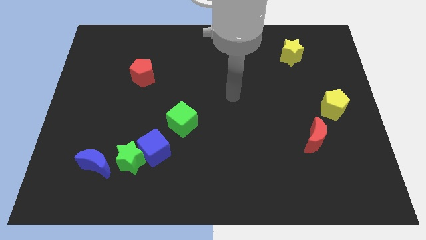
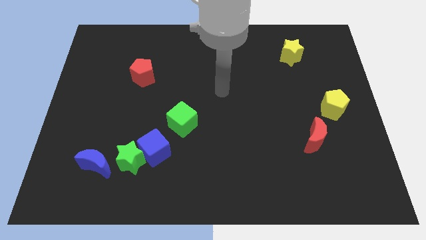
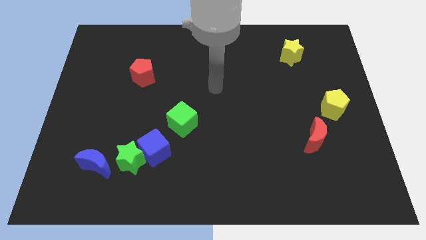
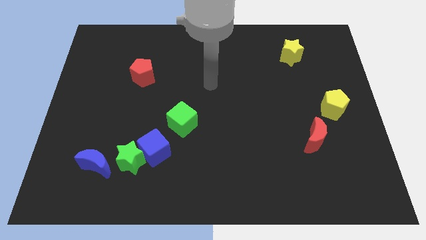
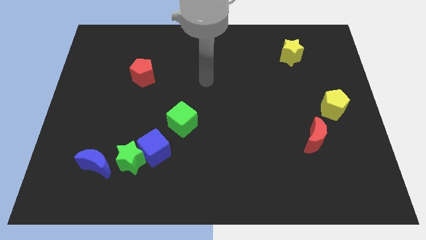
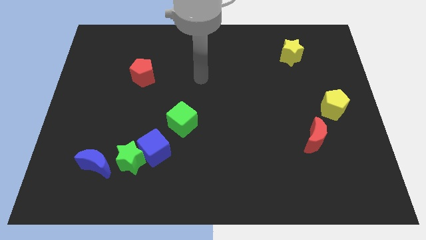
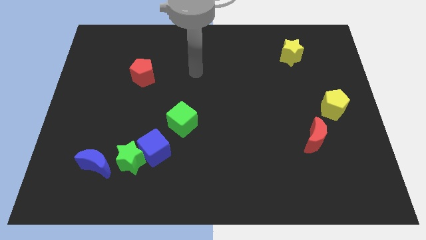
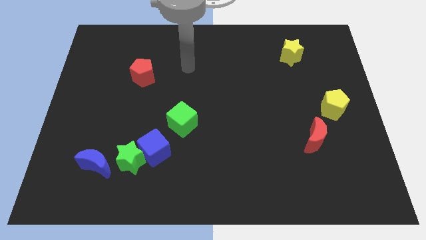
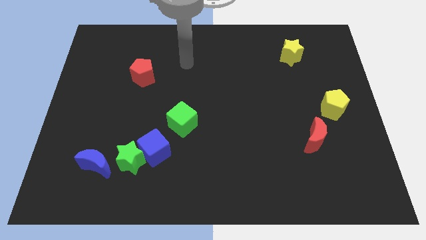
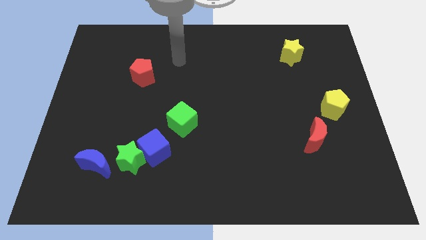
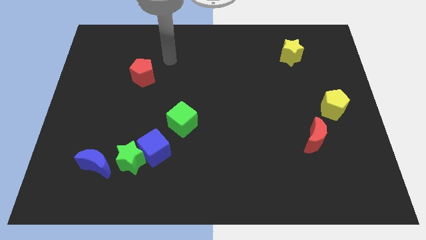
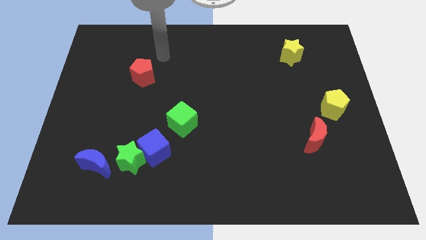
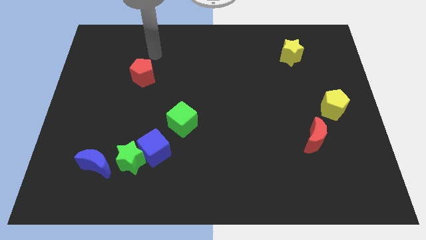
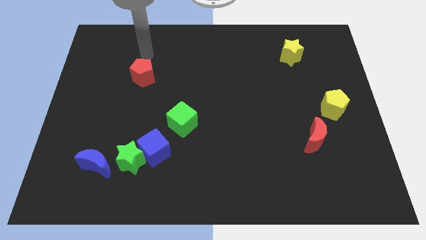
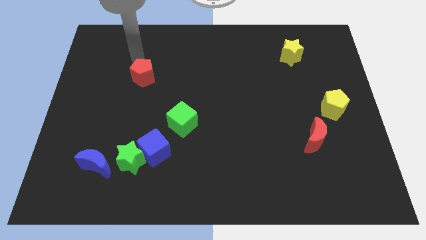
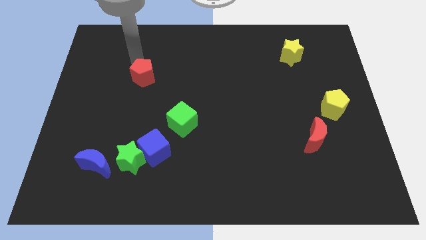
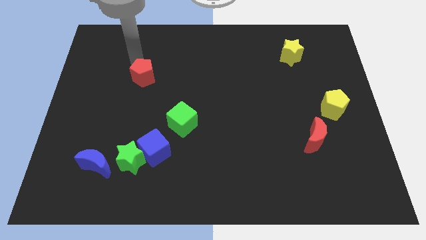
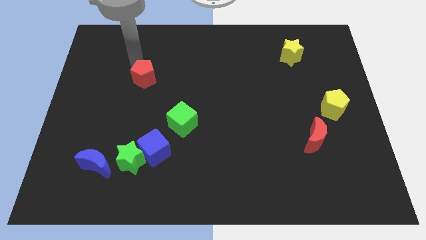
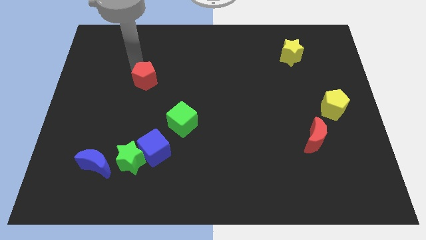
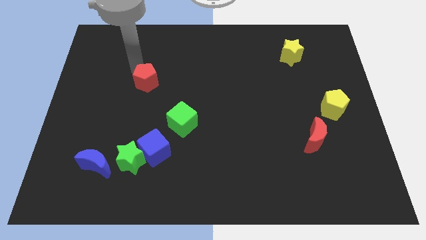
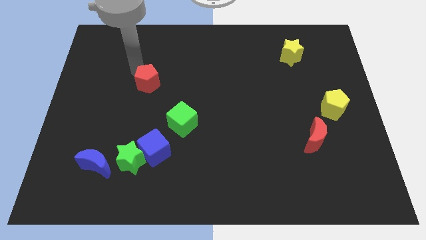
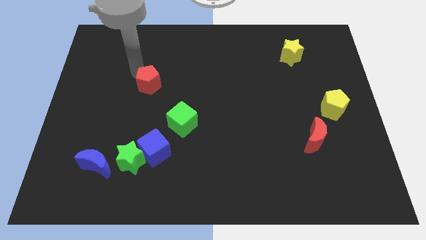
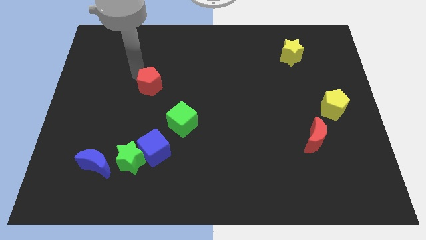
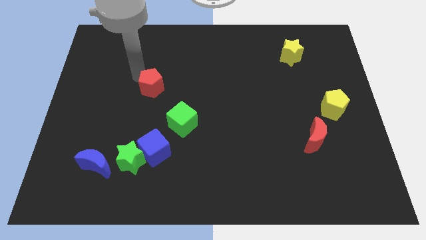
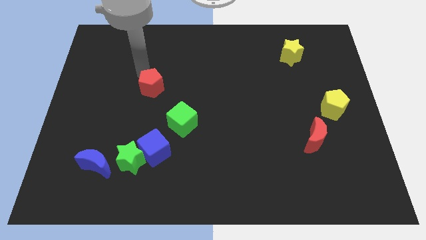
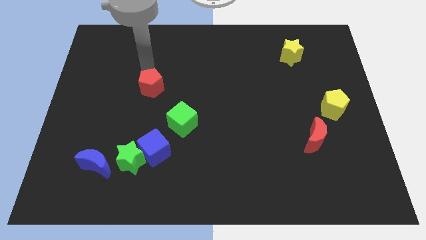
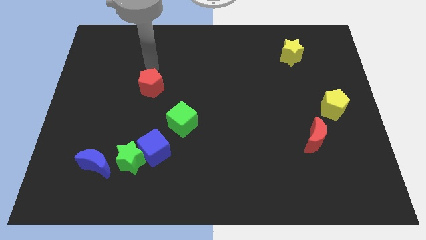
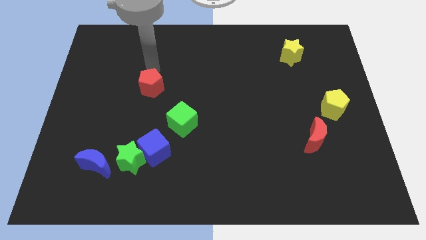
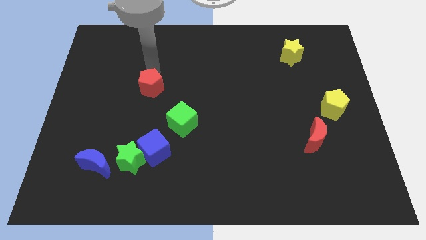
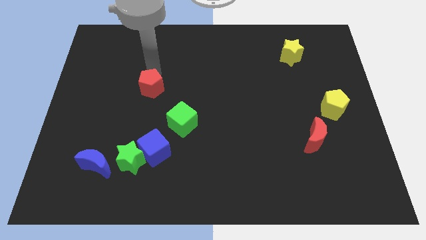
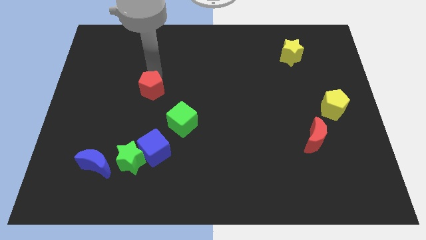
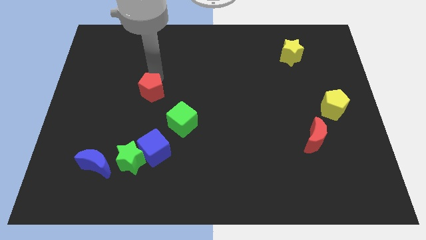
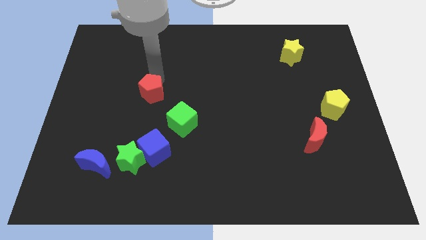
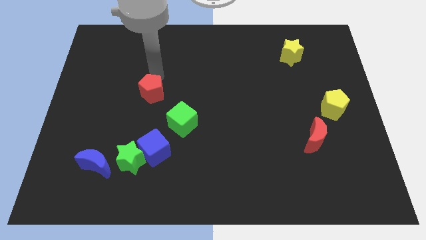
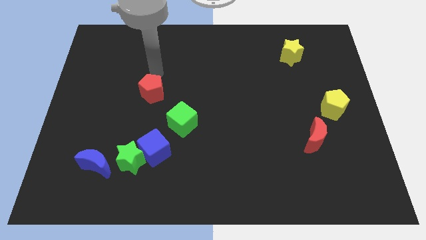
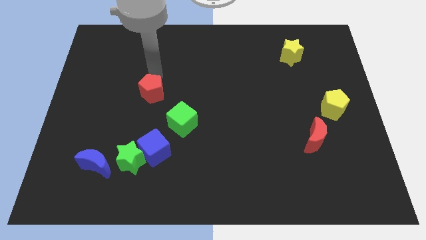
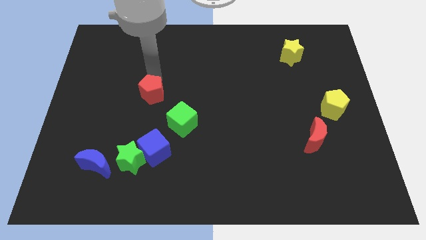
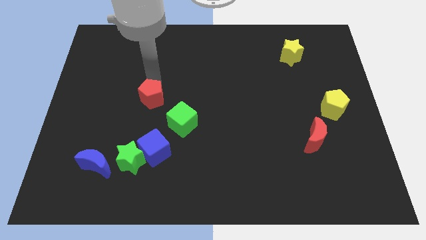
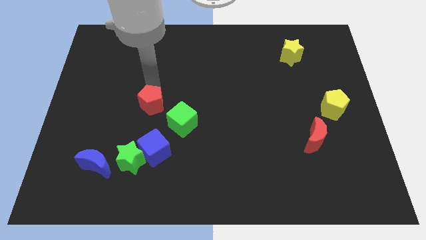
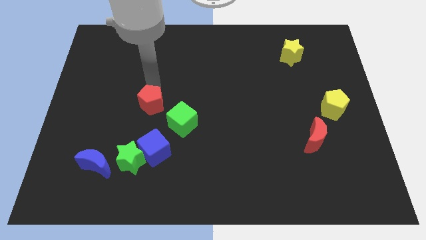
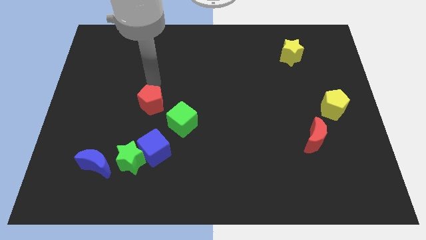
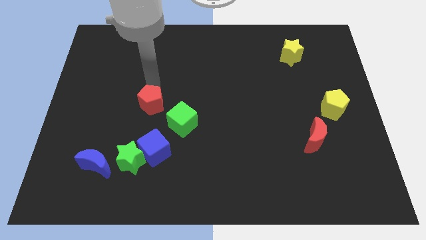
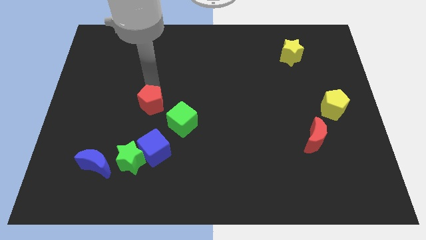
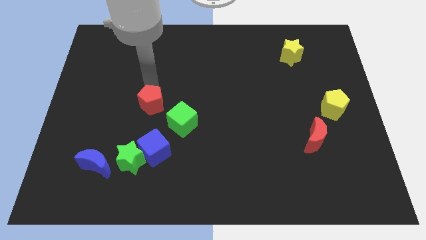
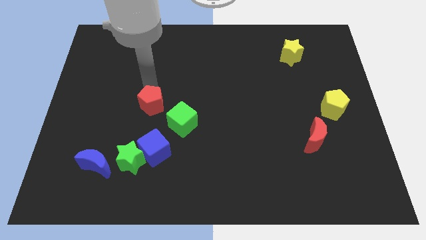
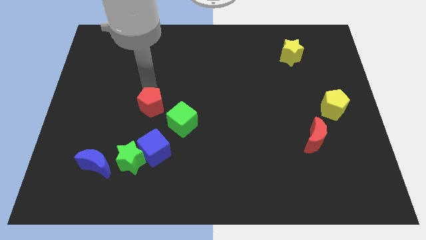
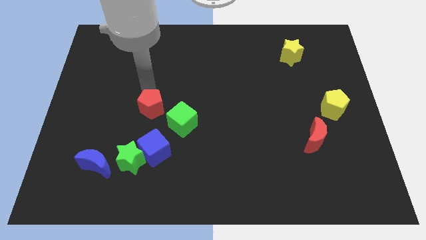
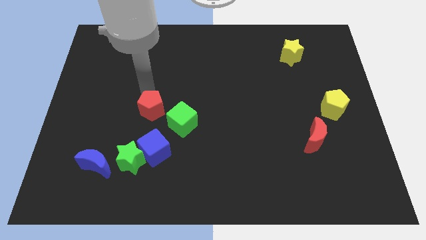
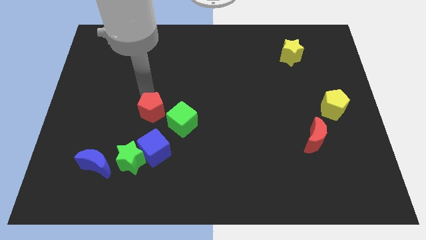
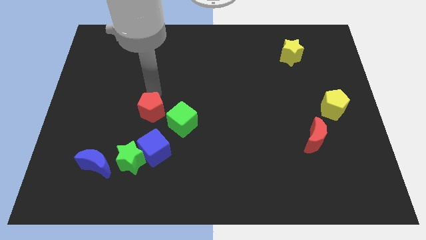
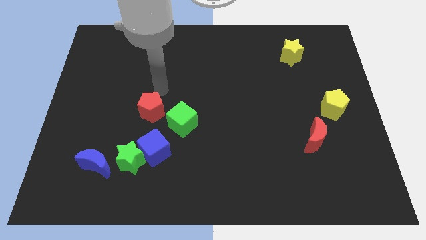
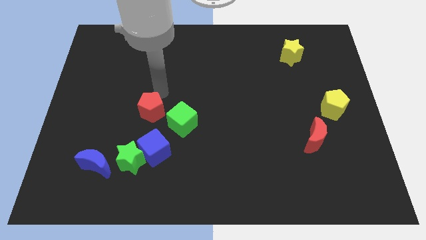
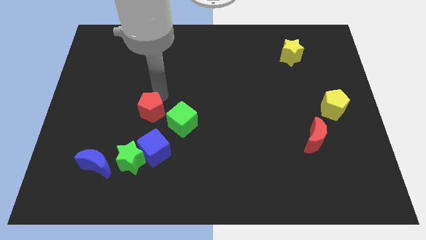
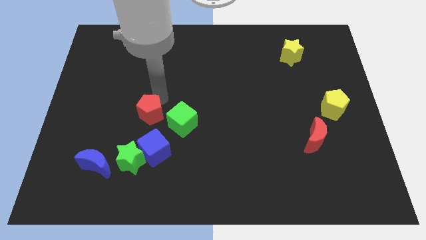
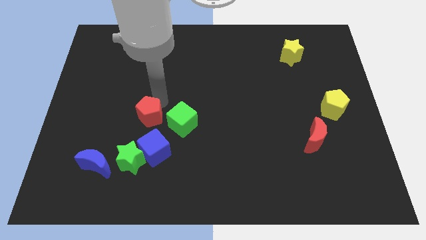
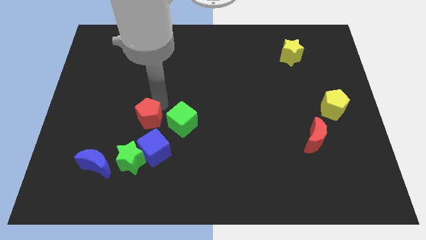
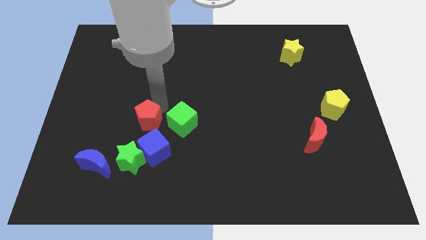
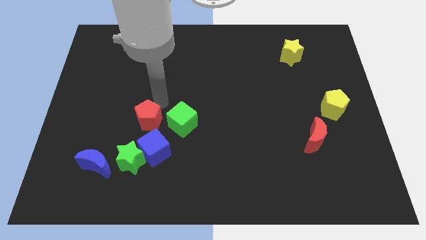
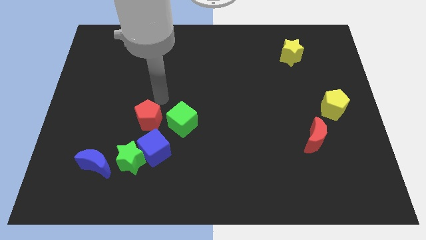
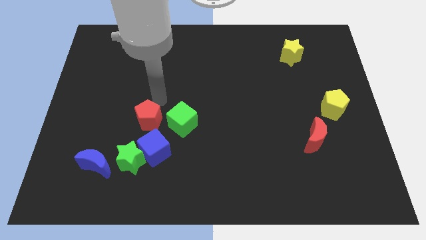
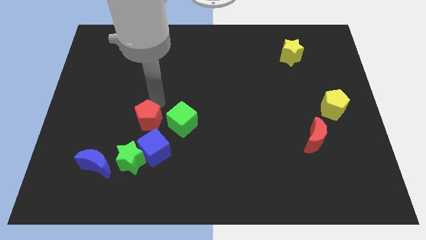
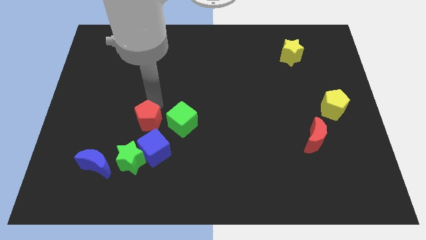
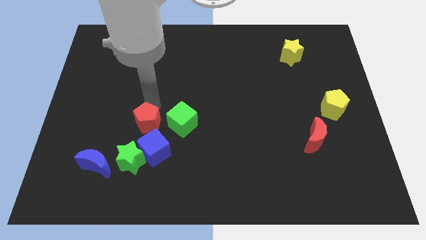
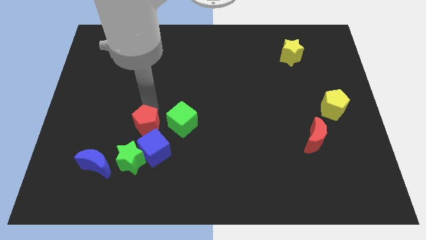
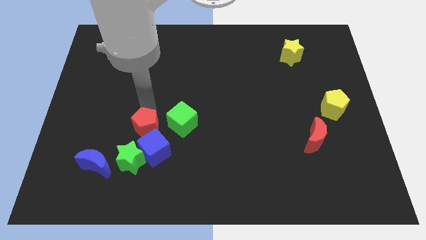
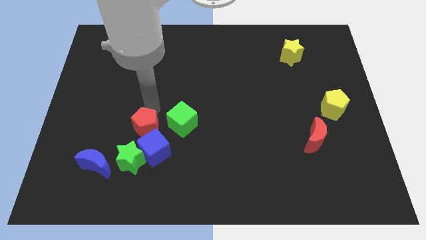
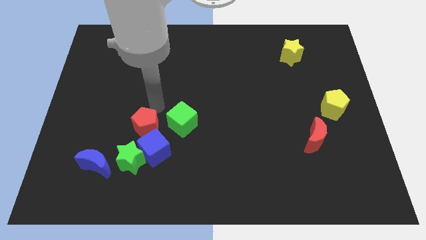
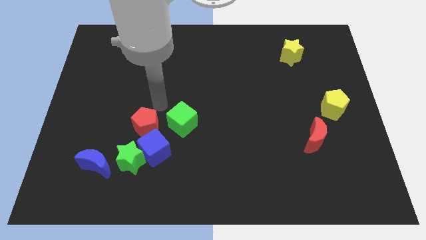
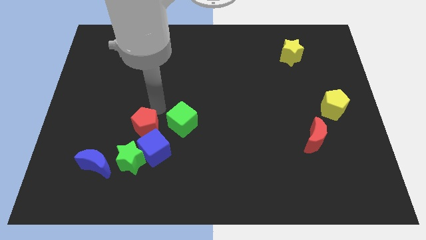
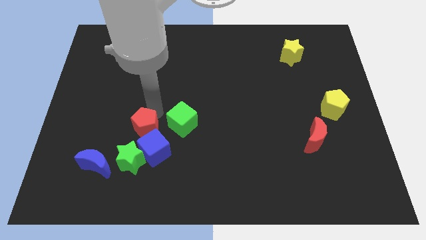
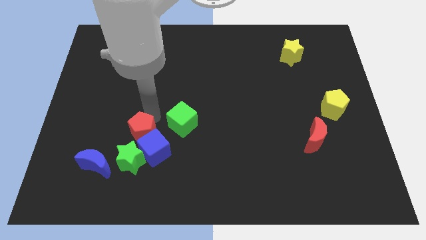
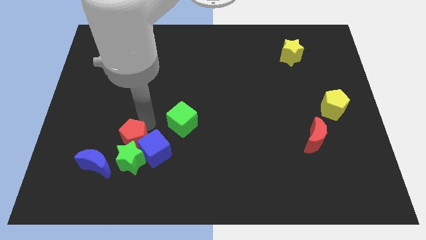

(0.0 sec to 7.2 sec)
push the red pentagon to the green star

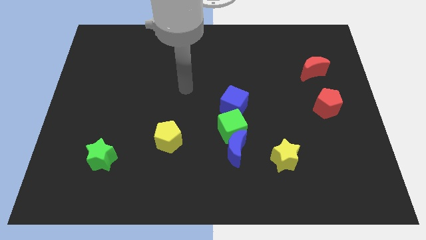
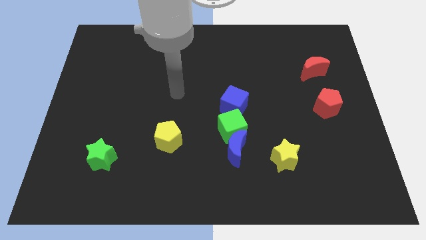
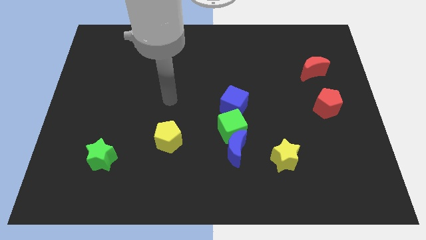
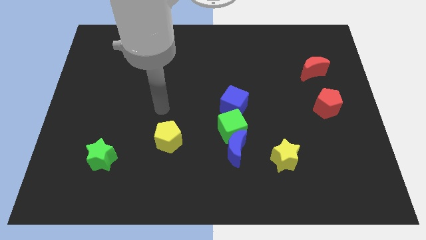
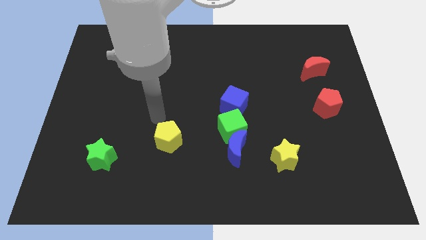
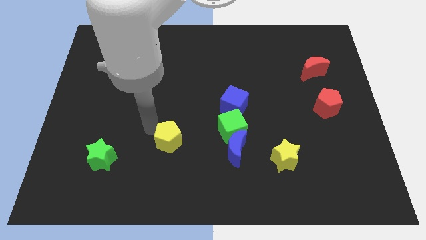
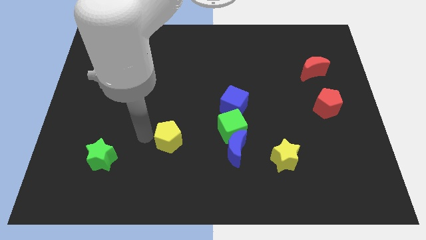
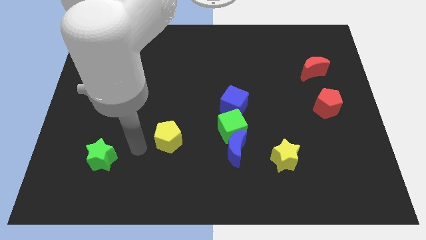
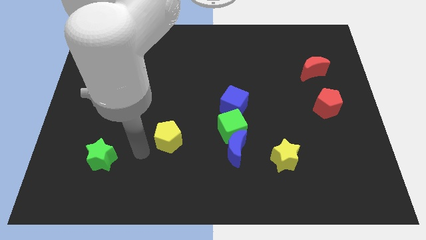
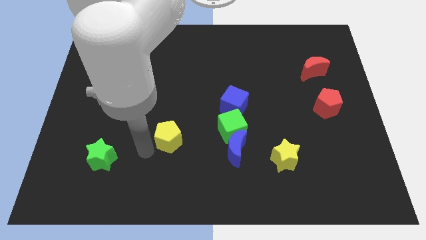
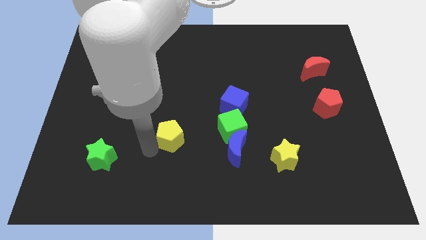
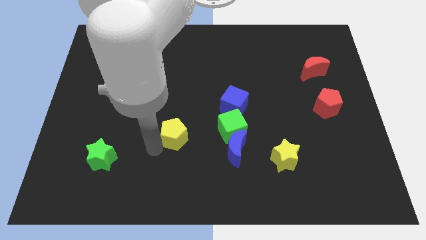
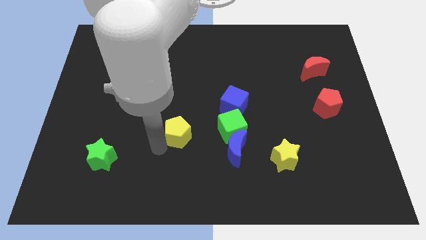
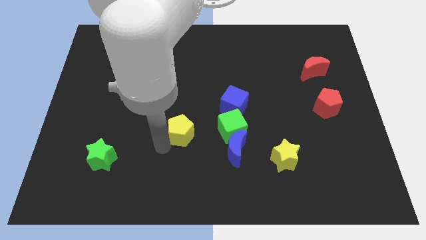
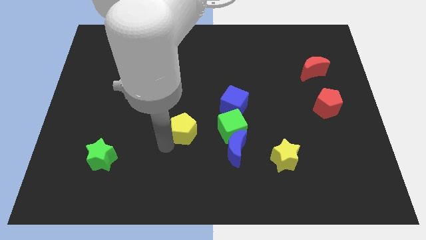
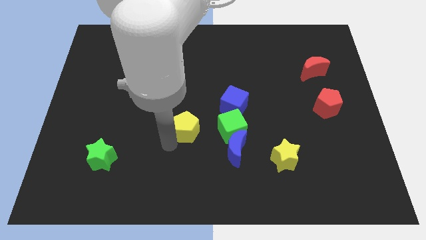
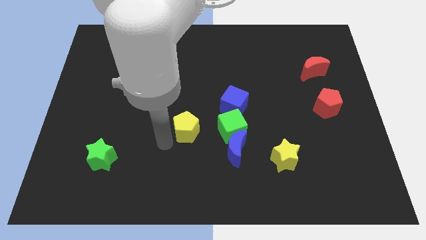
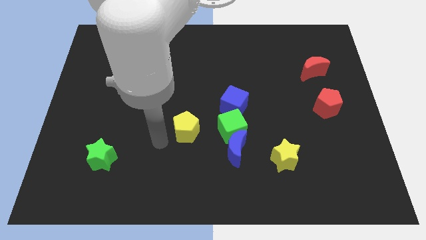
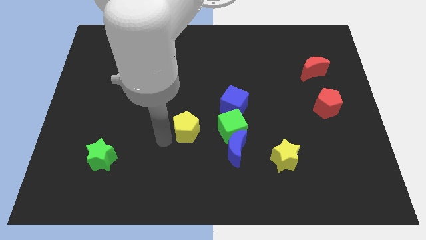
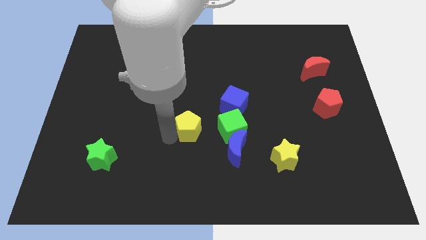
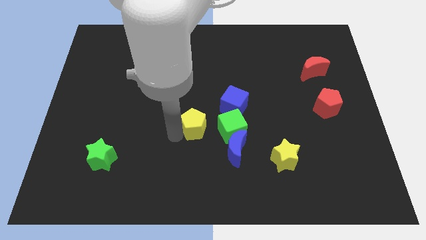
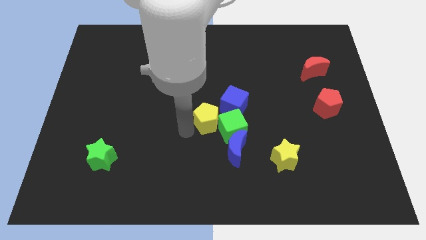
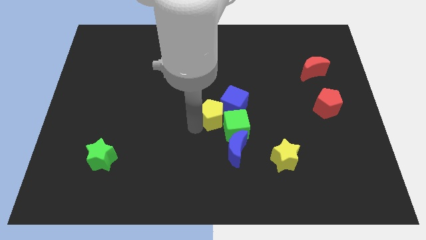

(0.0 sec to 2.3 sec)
slide the yellow pentagon close to the blue cube
